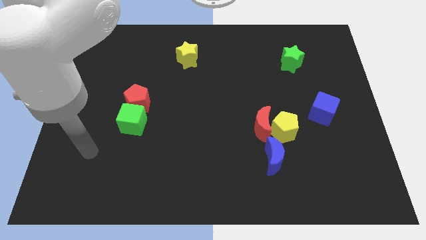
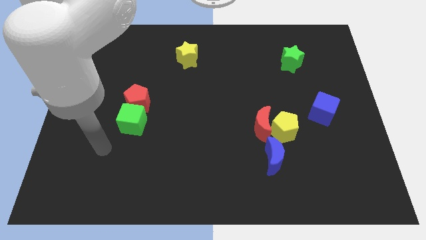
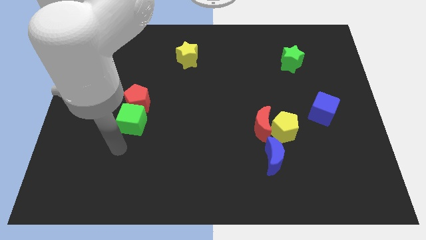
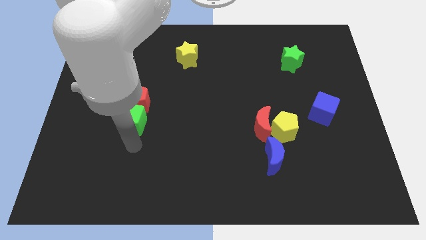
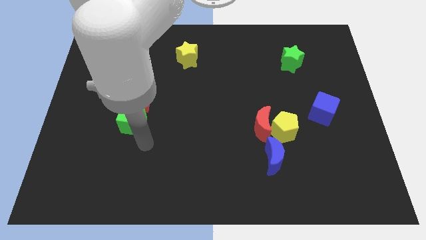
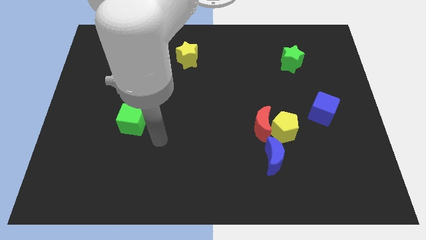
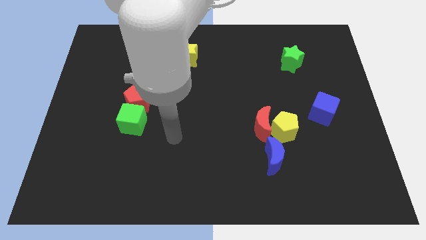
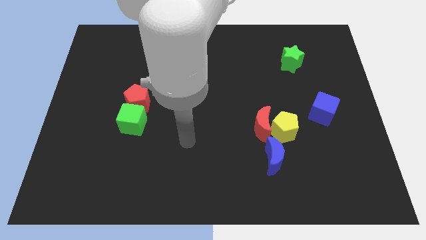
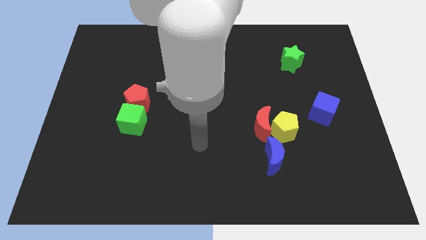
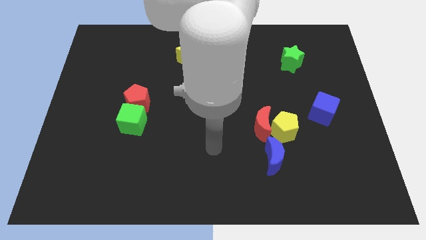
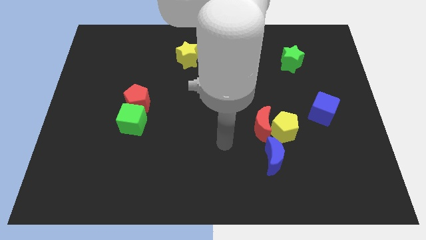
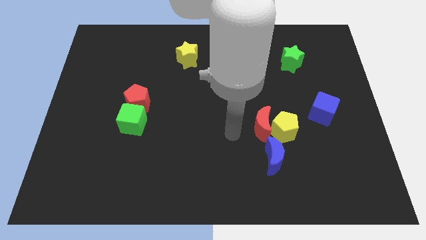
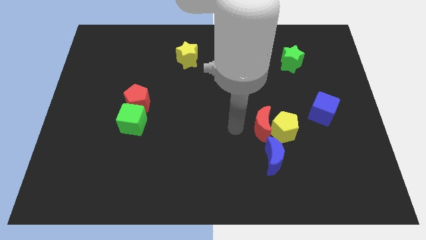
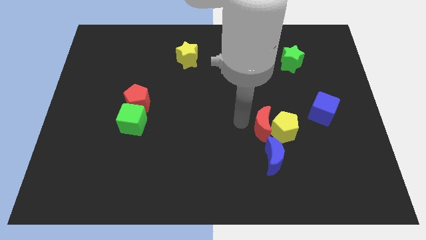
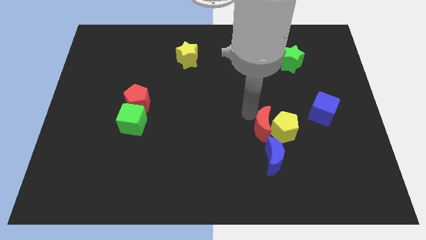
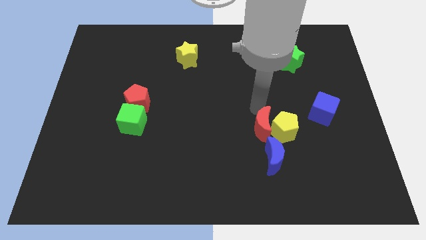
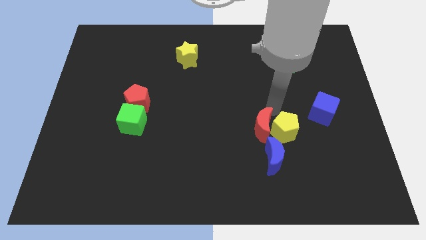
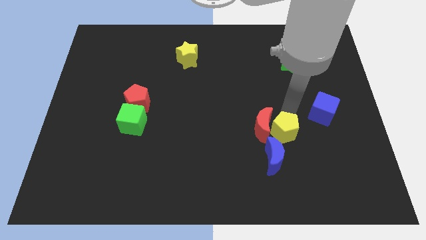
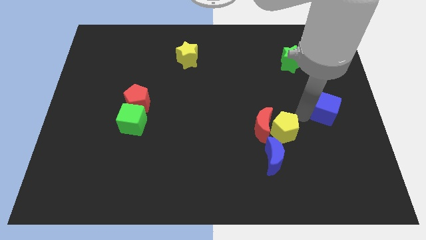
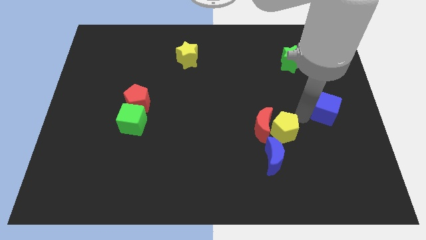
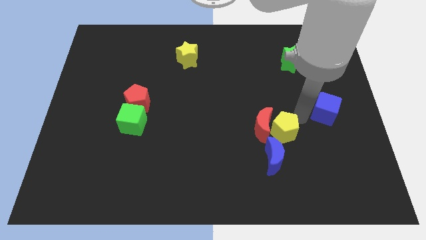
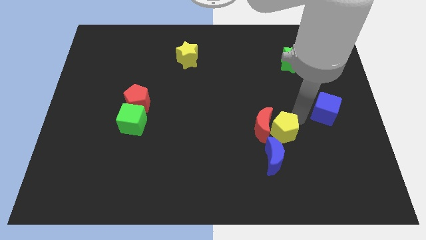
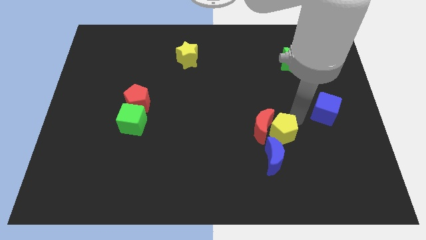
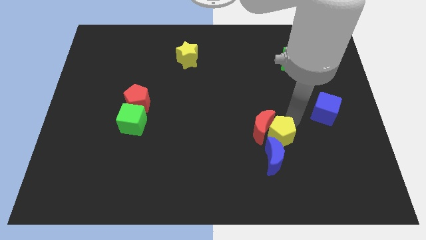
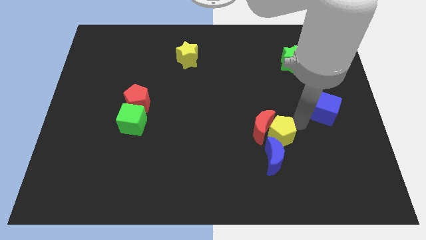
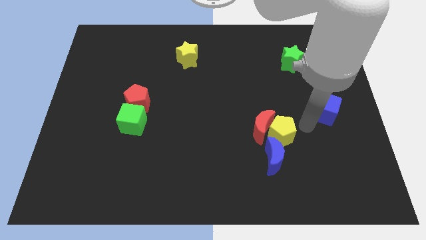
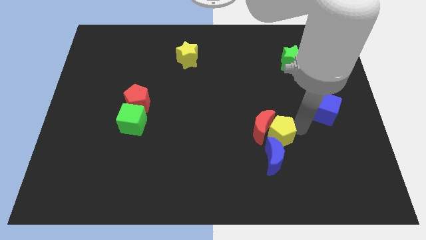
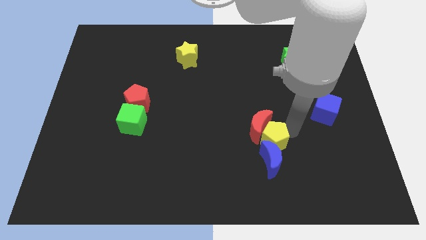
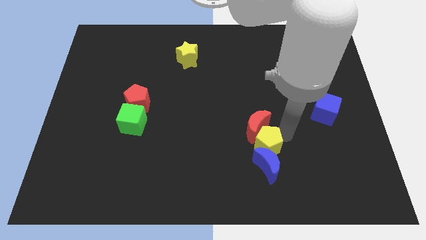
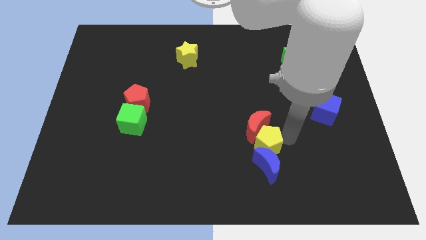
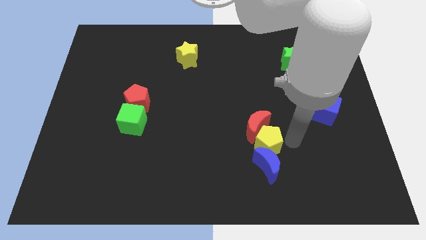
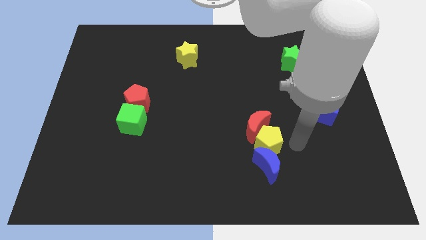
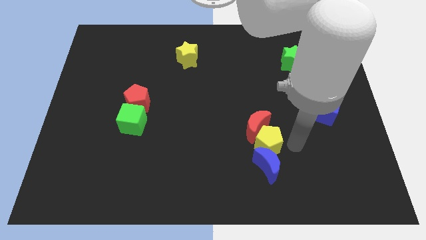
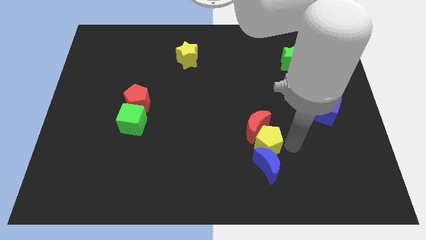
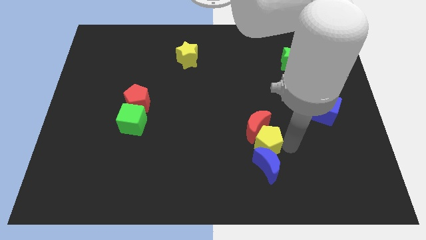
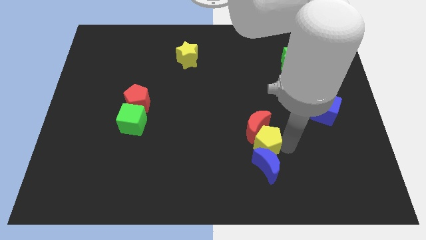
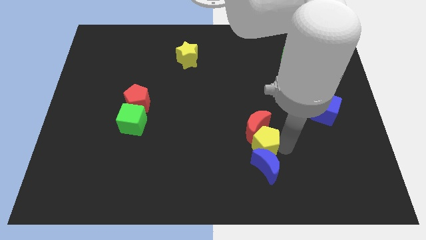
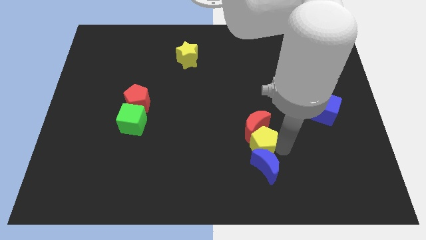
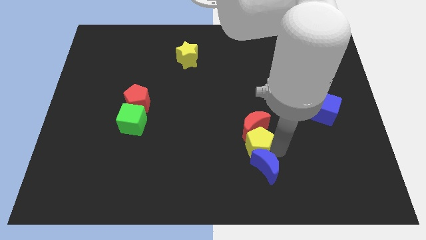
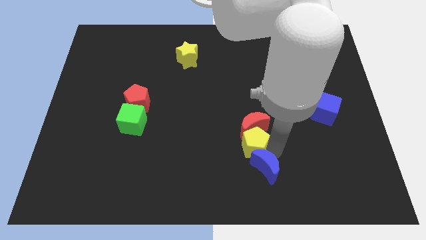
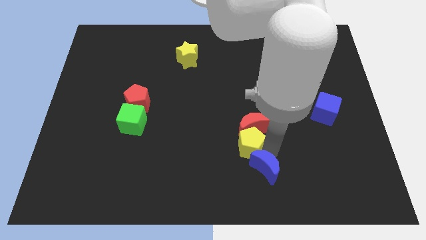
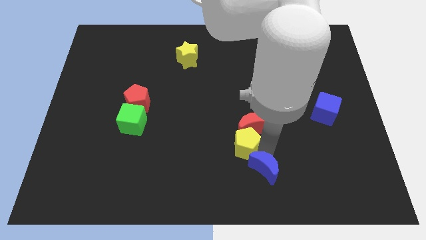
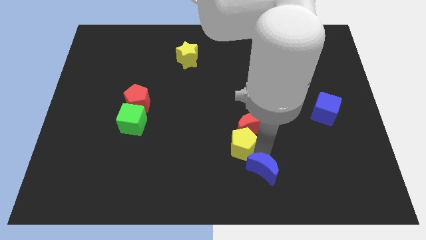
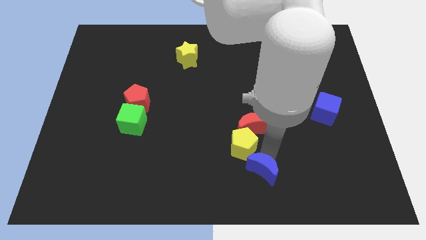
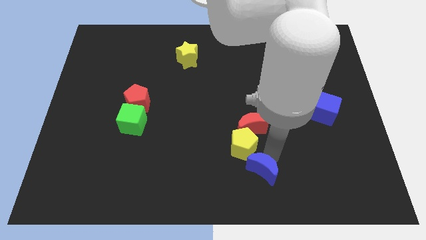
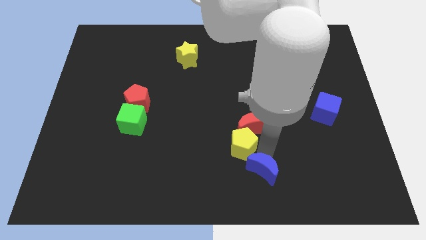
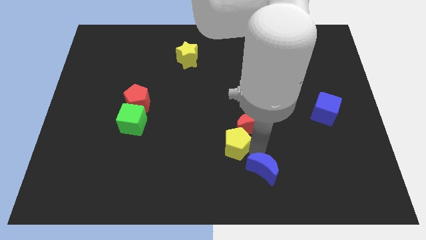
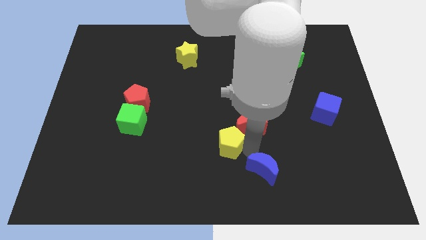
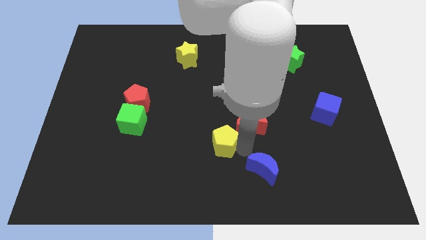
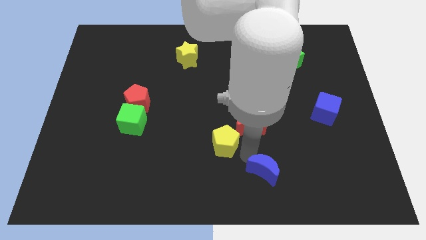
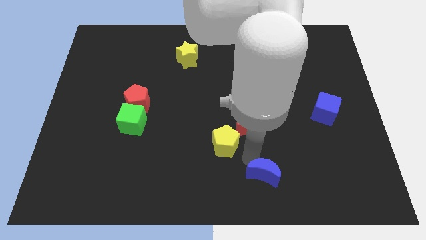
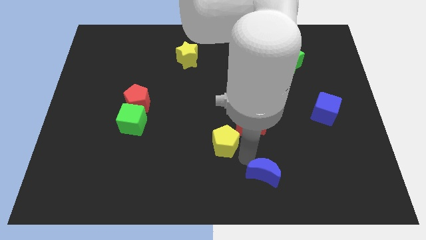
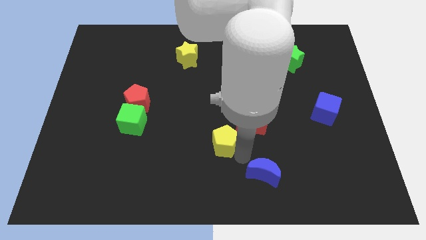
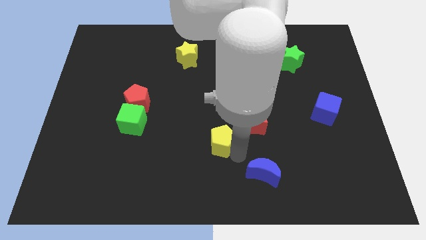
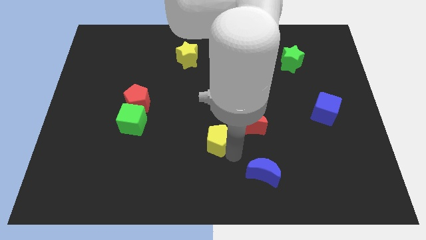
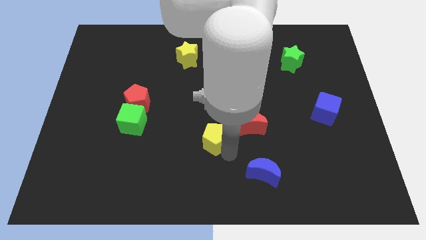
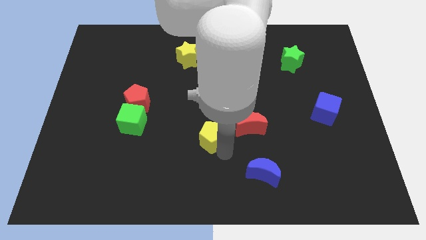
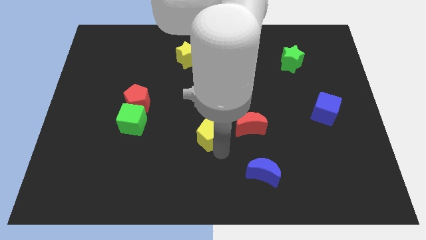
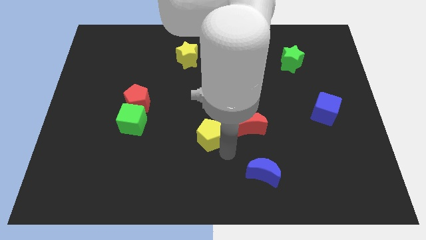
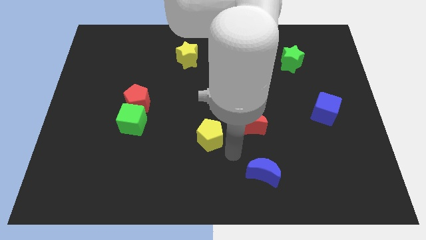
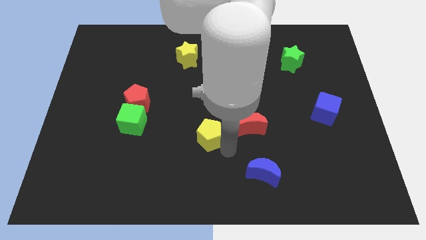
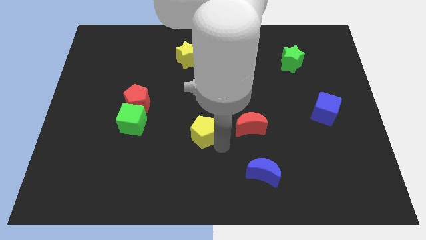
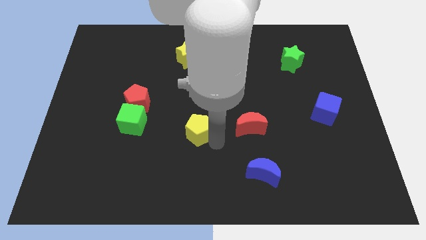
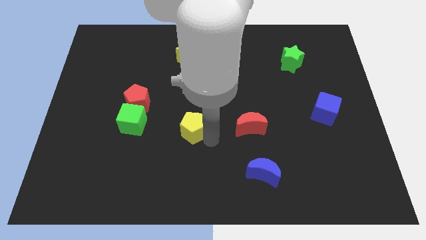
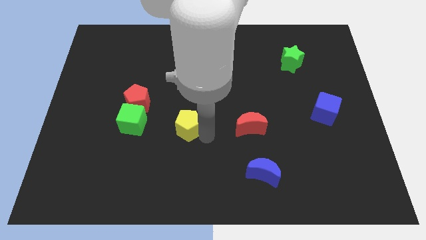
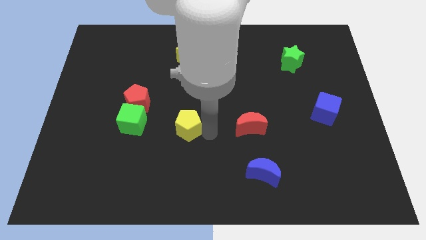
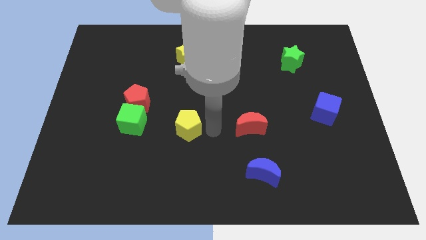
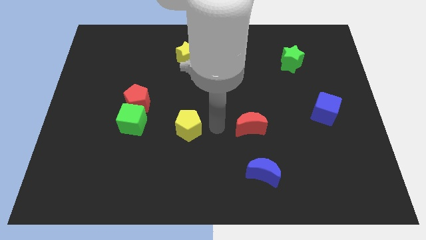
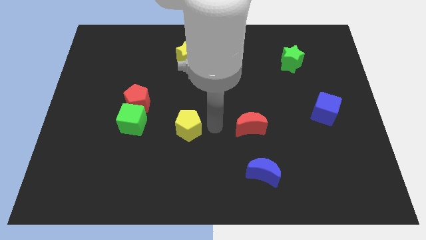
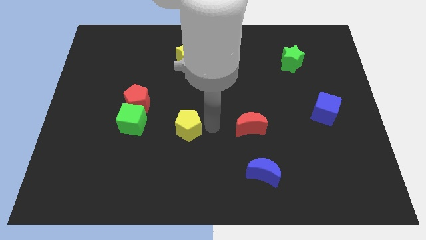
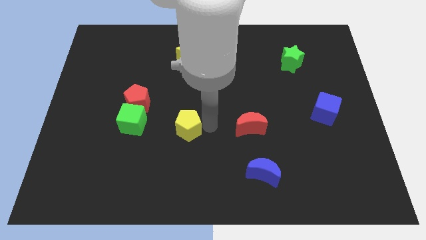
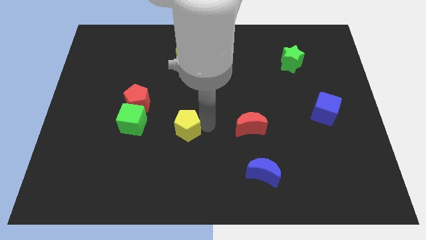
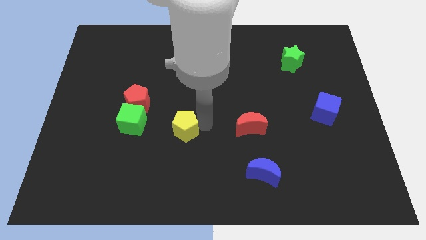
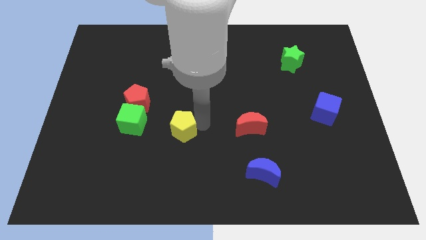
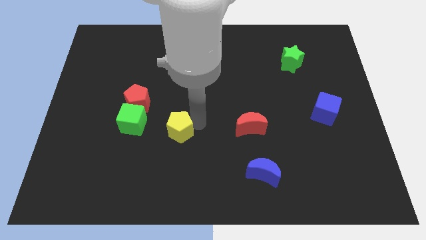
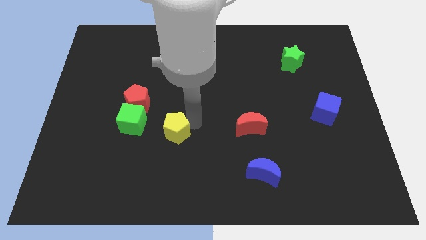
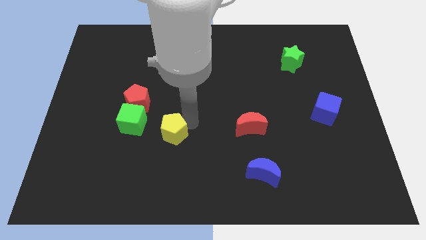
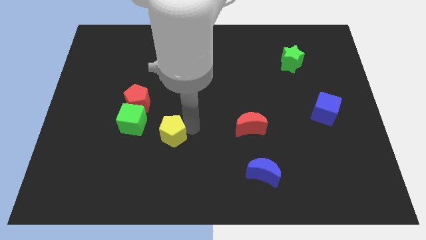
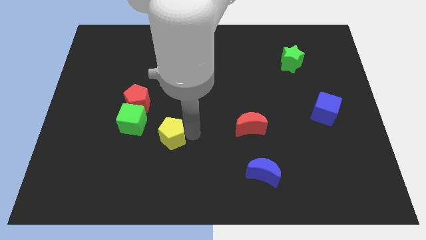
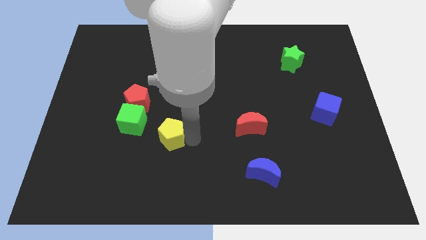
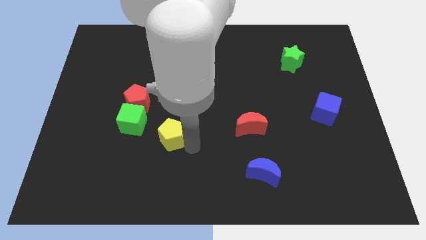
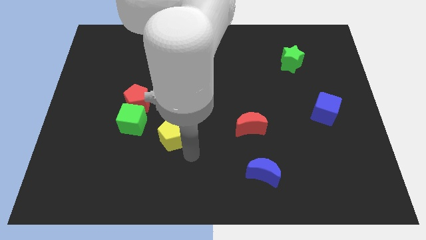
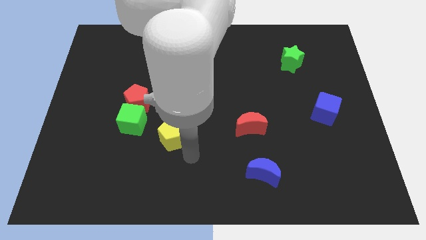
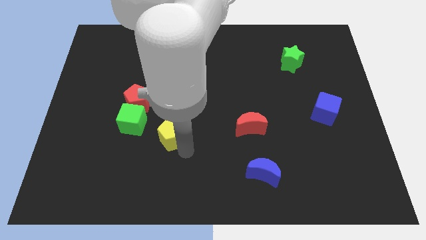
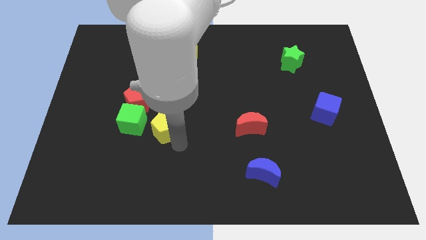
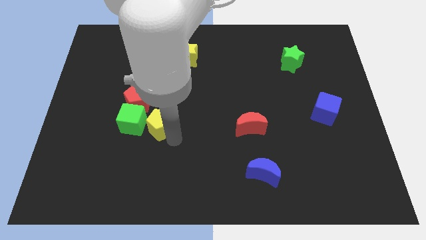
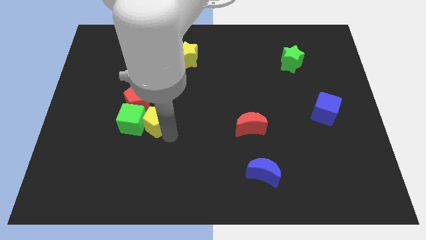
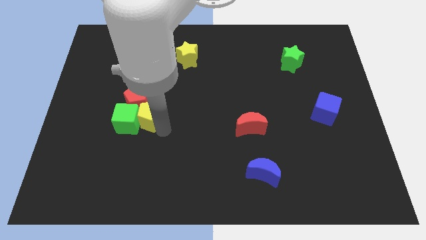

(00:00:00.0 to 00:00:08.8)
put the yellow pentagon close to the red pentagon
